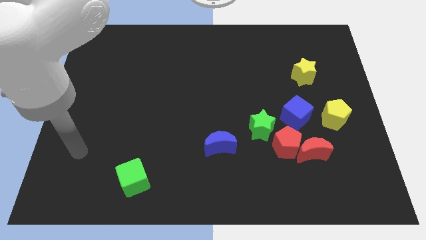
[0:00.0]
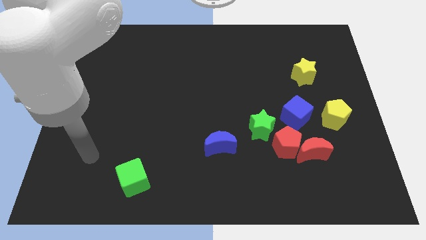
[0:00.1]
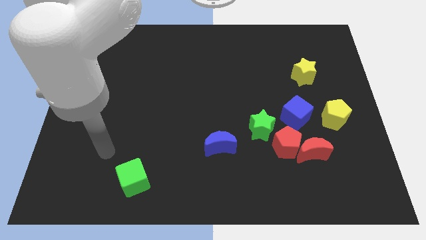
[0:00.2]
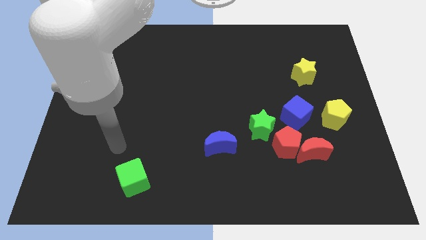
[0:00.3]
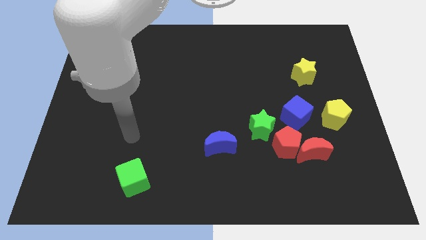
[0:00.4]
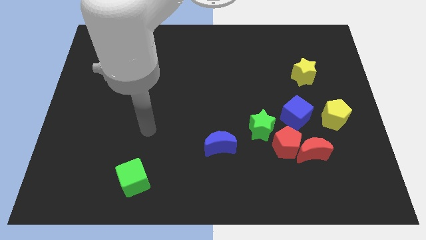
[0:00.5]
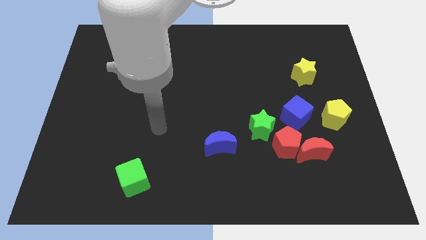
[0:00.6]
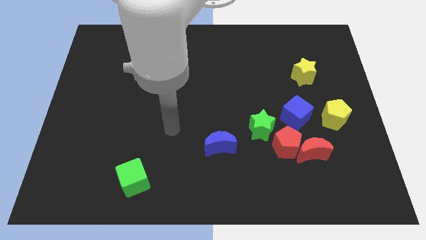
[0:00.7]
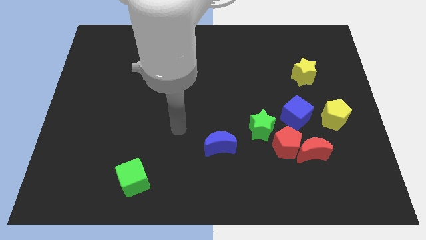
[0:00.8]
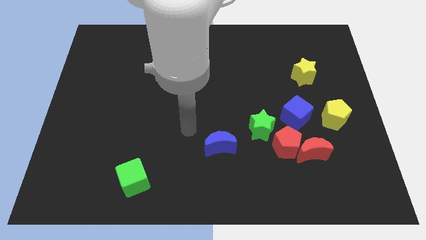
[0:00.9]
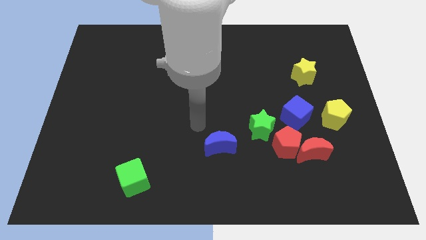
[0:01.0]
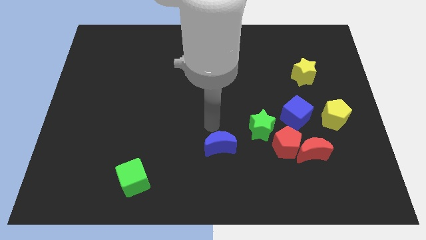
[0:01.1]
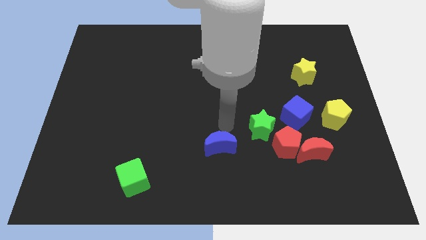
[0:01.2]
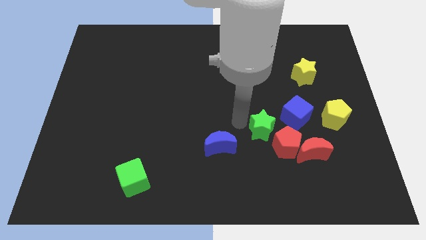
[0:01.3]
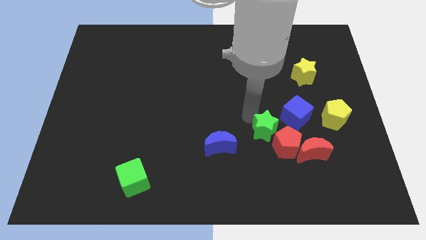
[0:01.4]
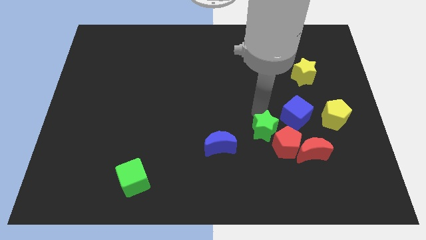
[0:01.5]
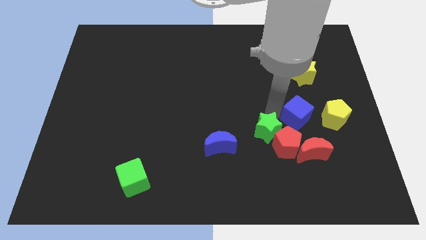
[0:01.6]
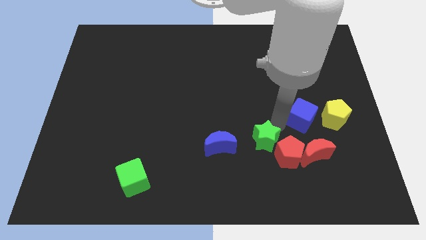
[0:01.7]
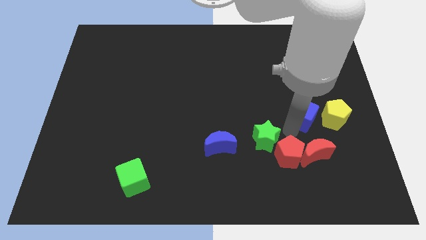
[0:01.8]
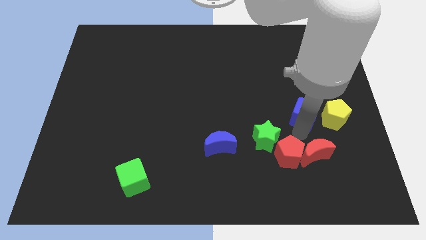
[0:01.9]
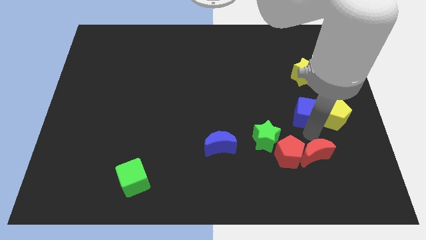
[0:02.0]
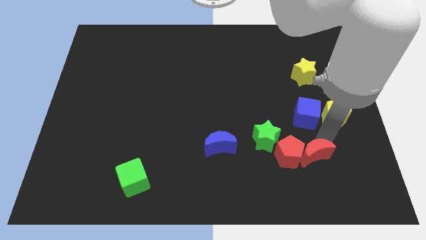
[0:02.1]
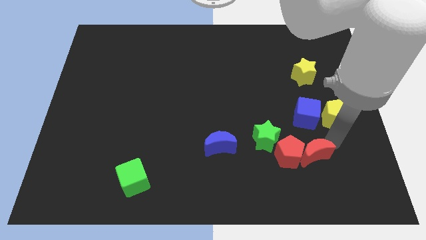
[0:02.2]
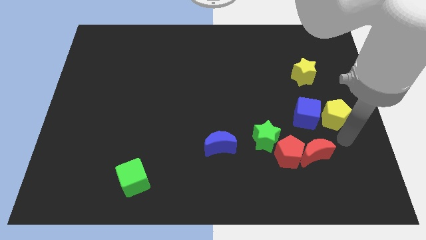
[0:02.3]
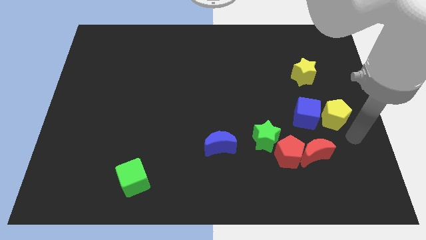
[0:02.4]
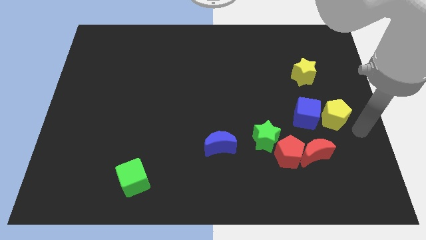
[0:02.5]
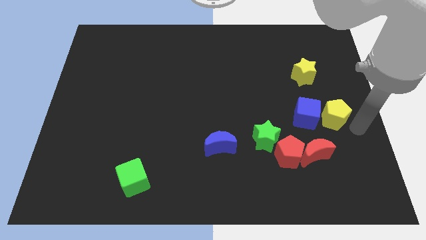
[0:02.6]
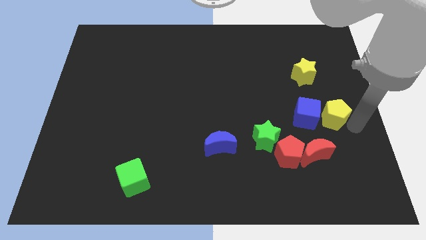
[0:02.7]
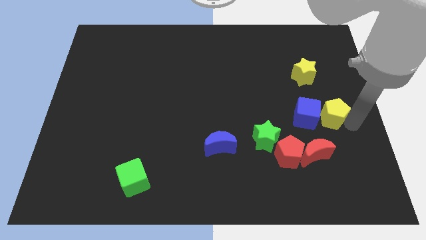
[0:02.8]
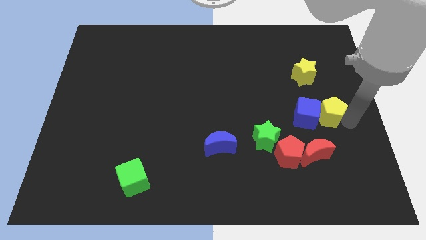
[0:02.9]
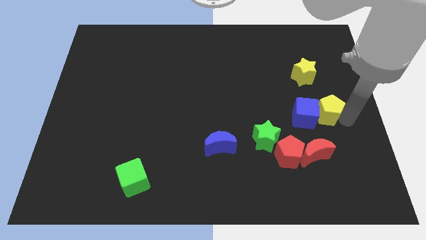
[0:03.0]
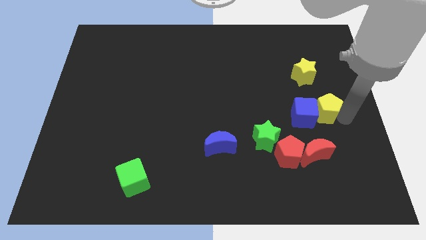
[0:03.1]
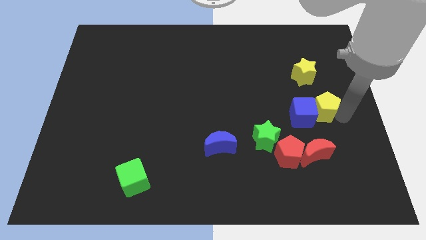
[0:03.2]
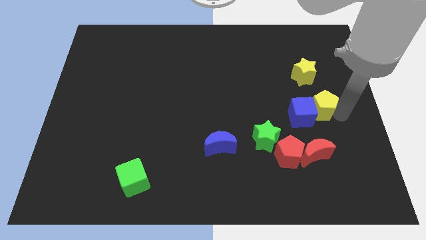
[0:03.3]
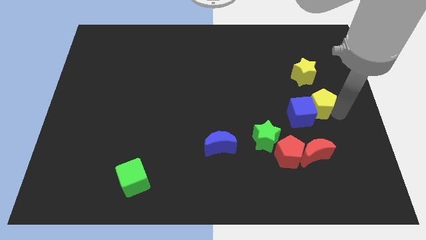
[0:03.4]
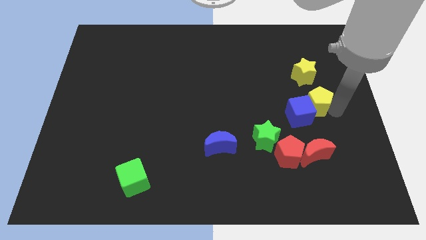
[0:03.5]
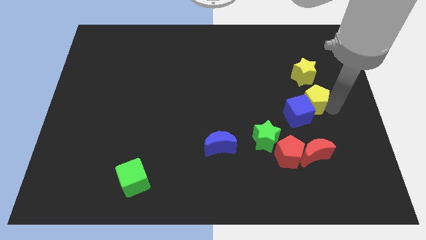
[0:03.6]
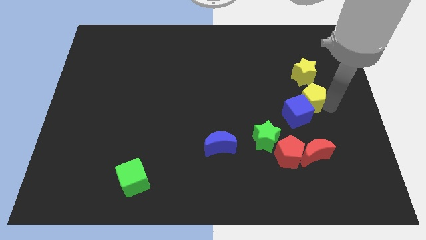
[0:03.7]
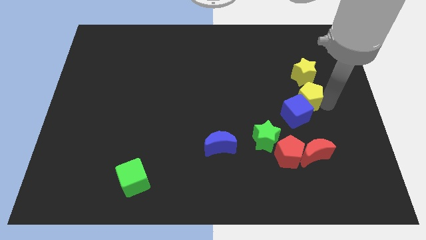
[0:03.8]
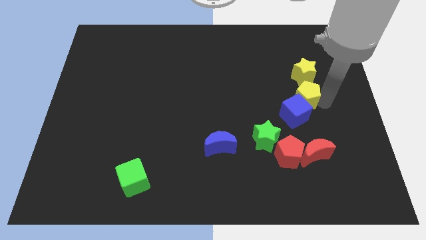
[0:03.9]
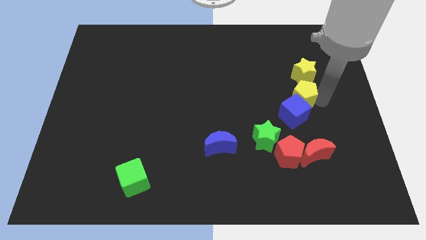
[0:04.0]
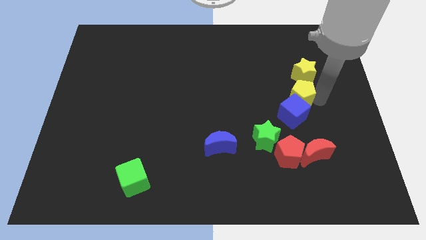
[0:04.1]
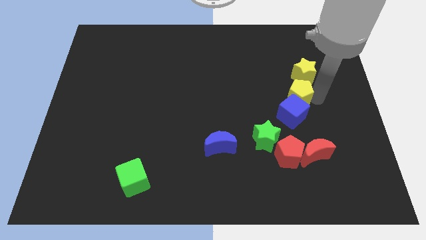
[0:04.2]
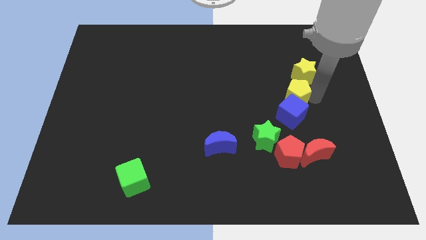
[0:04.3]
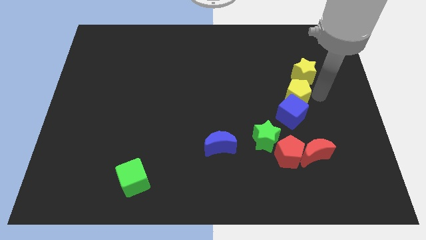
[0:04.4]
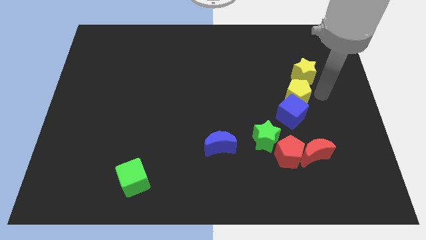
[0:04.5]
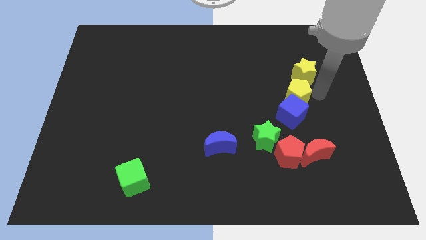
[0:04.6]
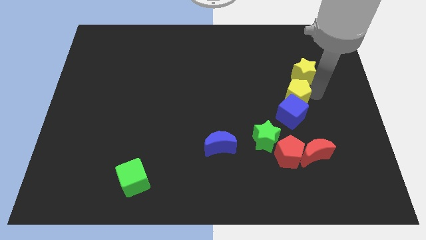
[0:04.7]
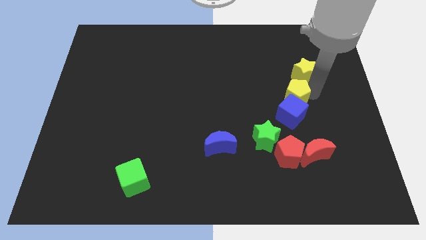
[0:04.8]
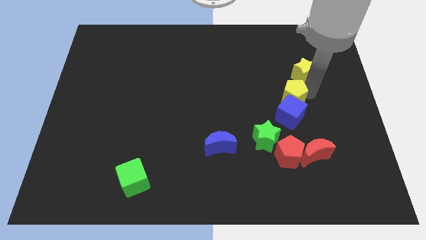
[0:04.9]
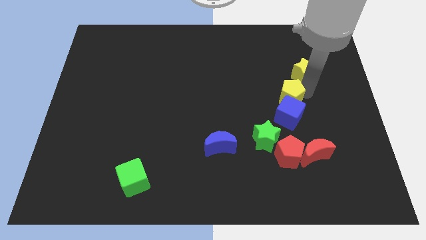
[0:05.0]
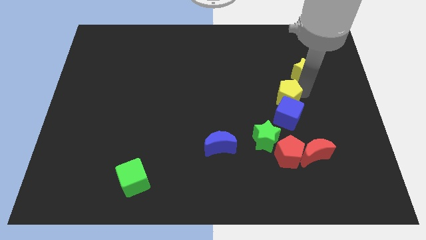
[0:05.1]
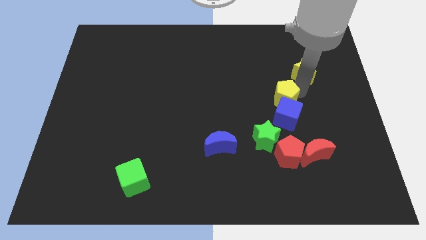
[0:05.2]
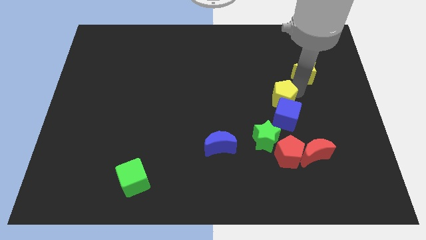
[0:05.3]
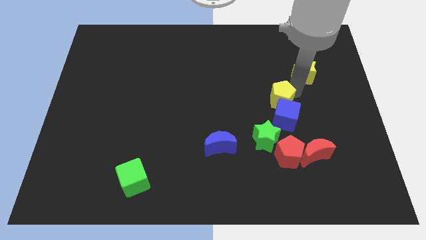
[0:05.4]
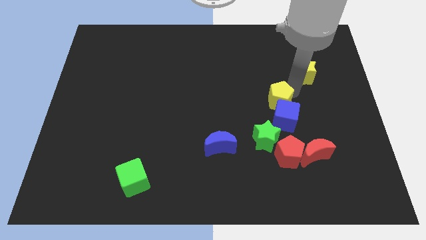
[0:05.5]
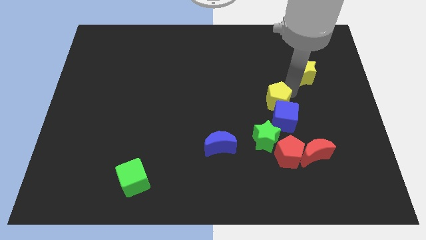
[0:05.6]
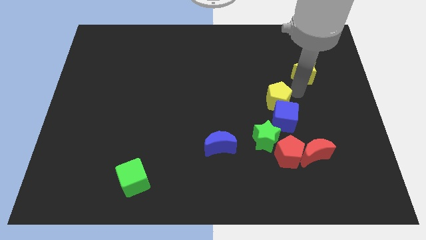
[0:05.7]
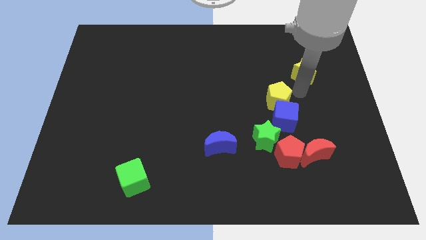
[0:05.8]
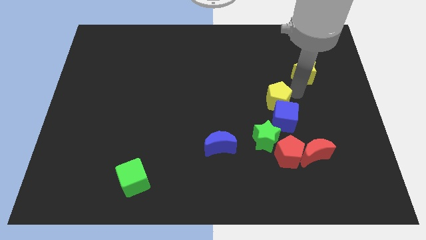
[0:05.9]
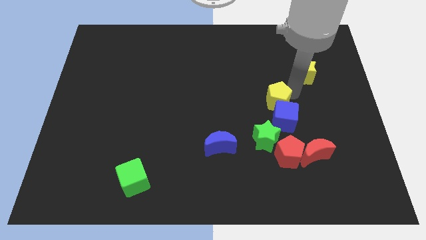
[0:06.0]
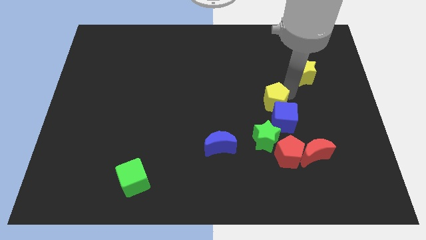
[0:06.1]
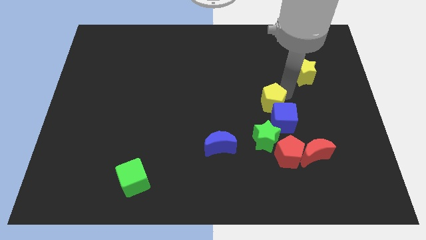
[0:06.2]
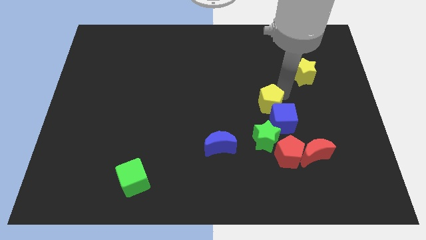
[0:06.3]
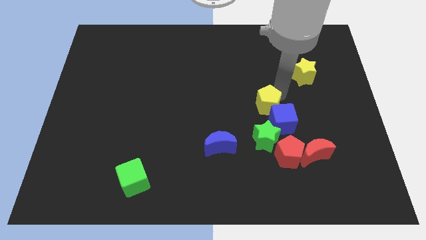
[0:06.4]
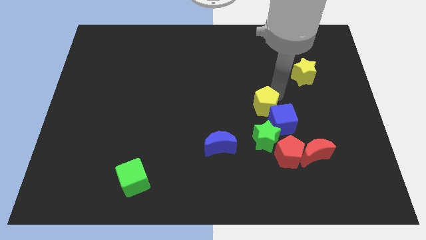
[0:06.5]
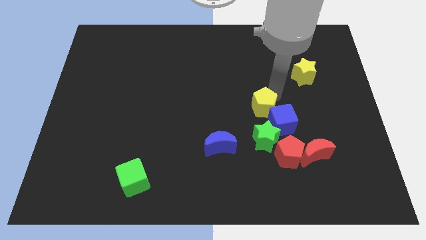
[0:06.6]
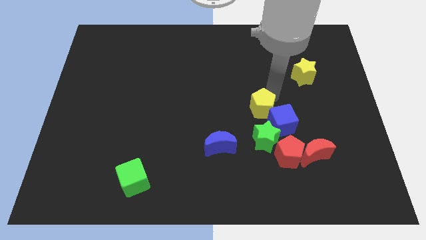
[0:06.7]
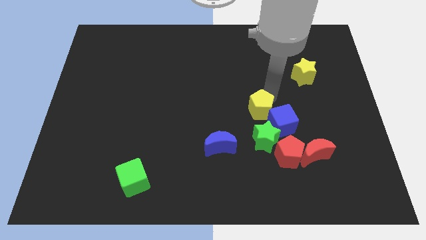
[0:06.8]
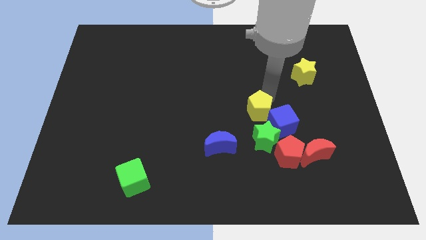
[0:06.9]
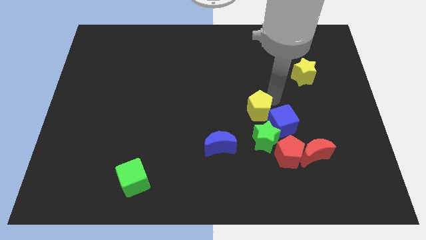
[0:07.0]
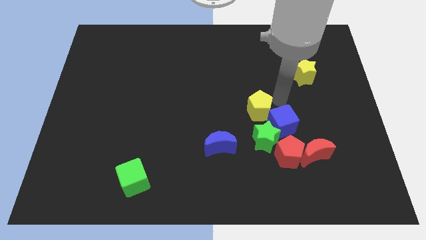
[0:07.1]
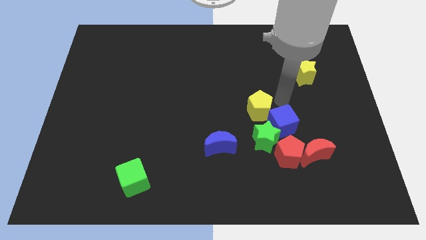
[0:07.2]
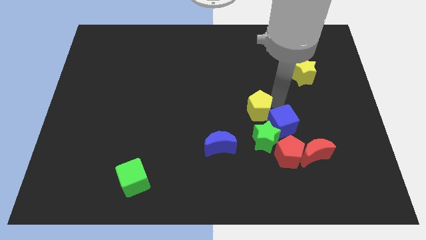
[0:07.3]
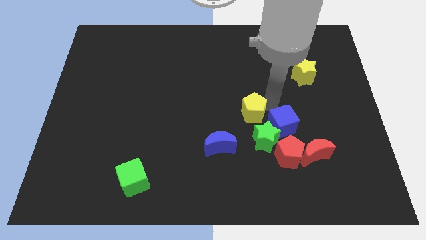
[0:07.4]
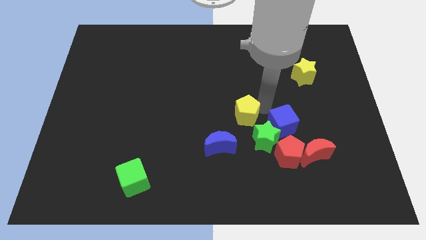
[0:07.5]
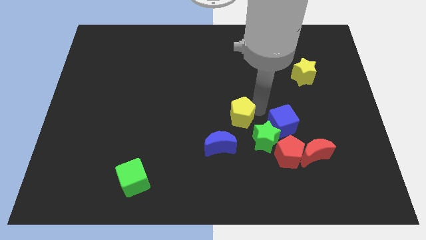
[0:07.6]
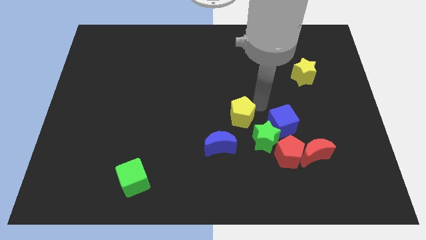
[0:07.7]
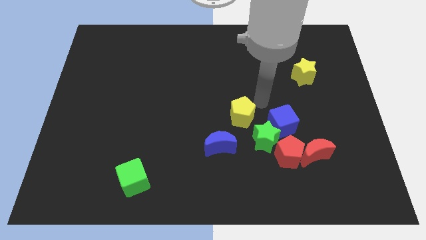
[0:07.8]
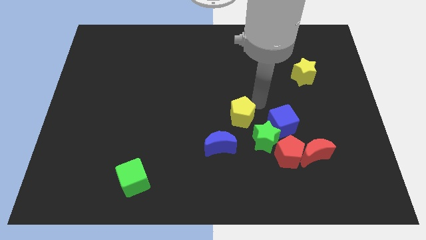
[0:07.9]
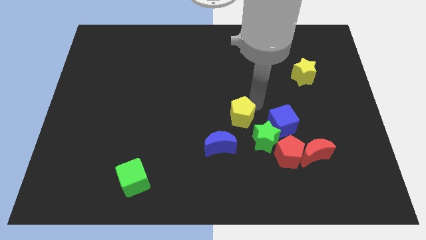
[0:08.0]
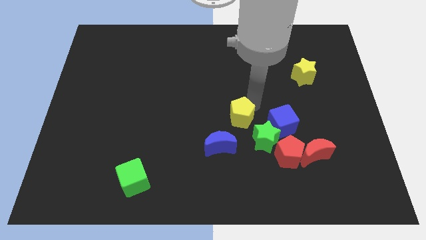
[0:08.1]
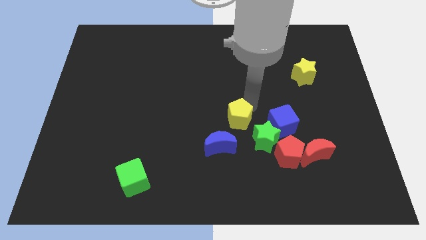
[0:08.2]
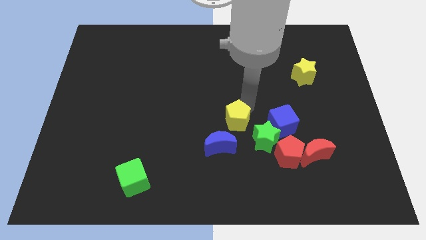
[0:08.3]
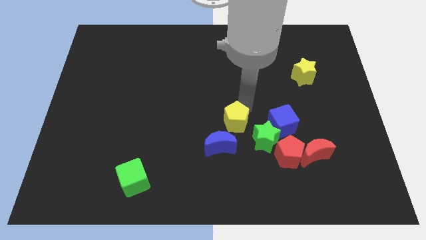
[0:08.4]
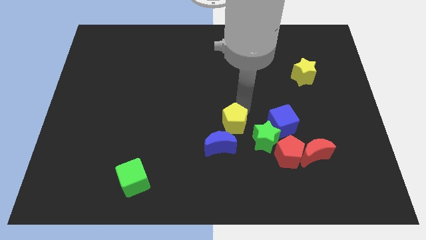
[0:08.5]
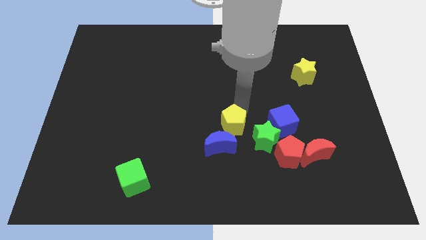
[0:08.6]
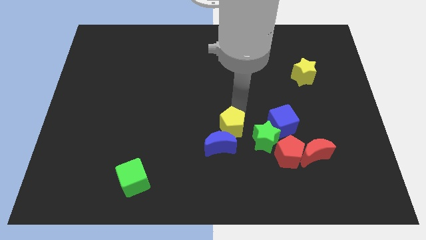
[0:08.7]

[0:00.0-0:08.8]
move the yellow pentagon close to the blue moon
